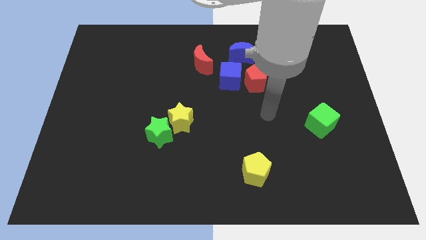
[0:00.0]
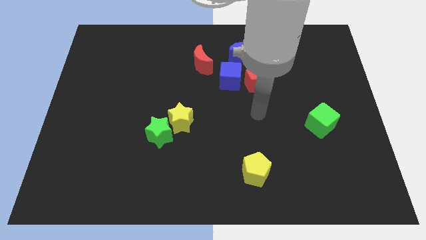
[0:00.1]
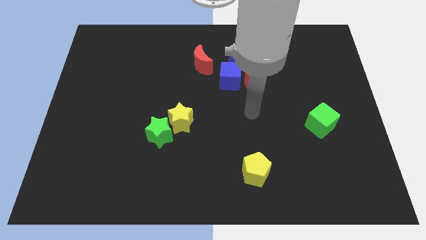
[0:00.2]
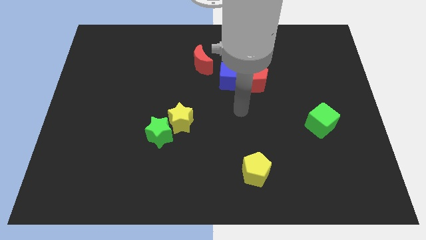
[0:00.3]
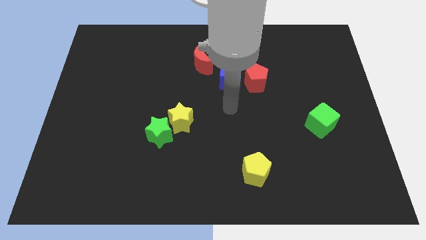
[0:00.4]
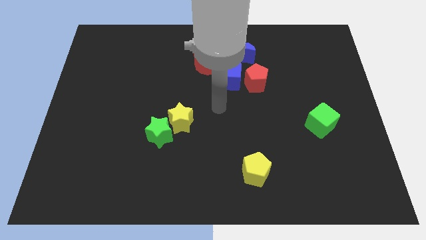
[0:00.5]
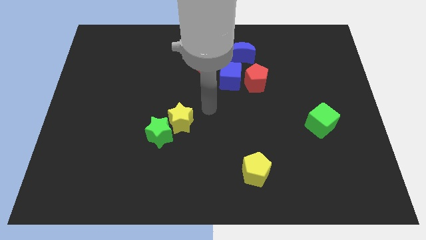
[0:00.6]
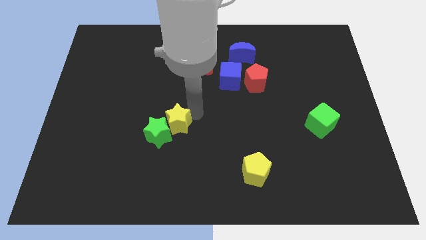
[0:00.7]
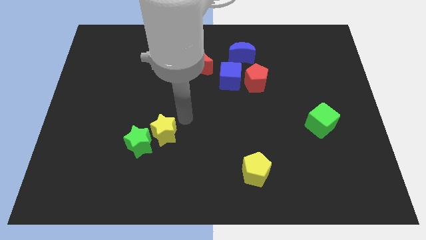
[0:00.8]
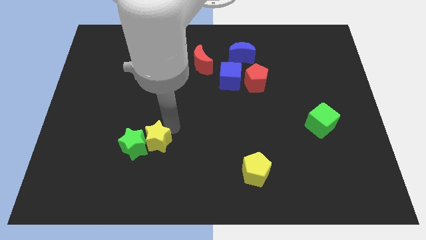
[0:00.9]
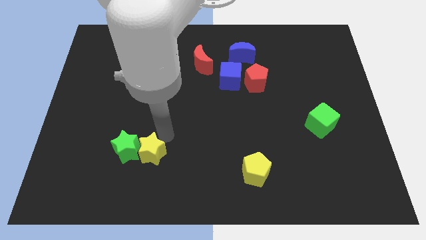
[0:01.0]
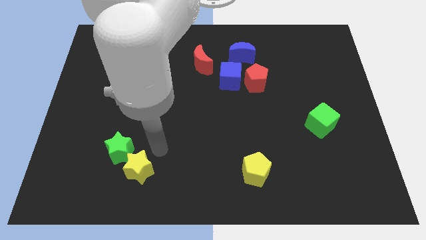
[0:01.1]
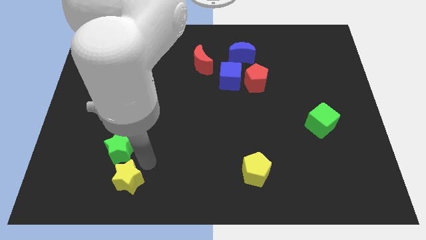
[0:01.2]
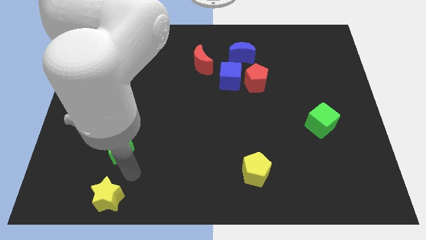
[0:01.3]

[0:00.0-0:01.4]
separate the green star from the yellow star

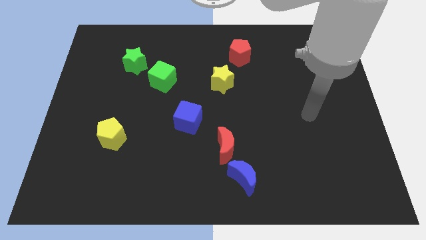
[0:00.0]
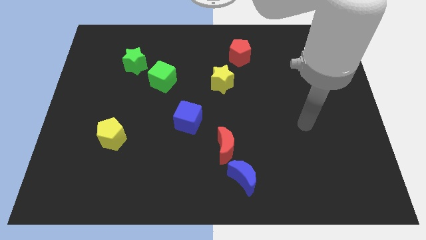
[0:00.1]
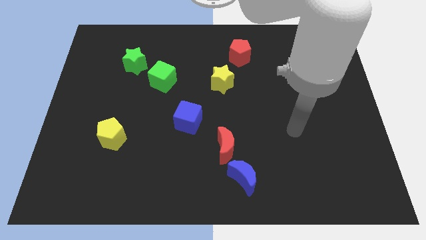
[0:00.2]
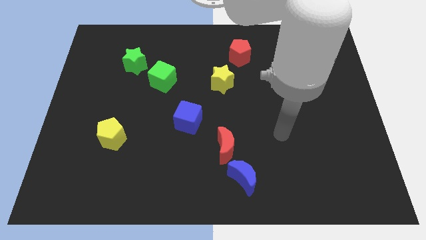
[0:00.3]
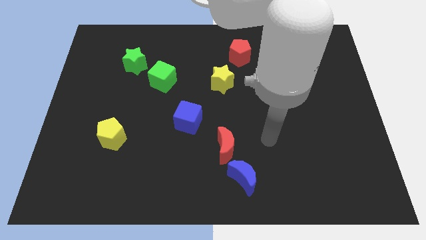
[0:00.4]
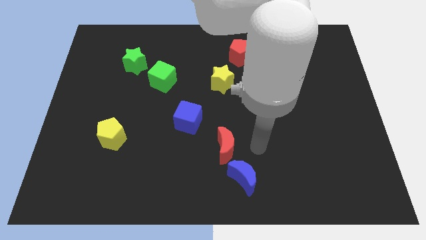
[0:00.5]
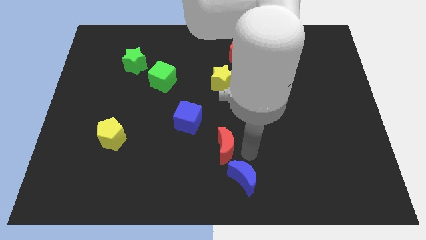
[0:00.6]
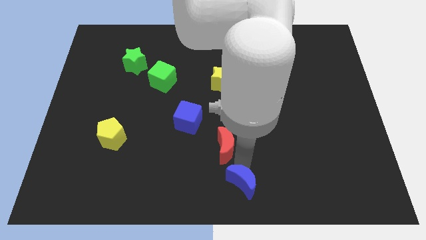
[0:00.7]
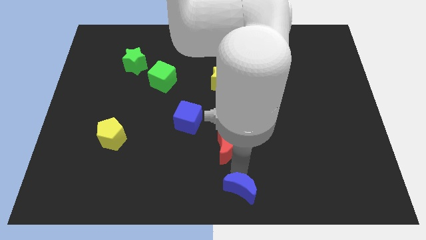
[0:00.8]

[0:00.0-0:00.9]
separate the red moon from the blue moon

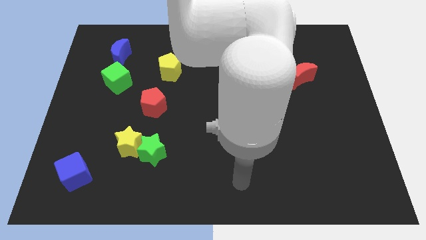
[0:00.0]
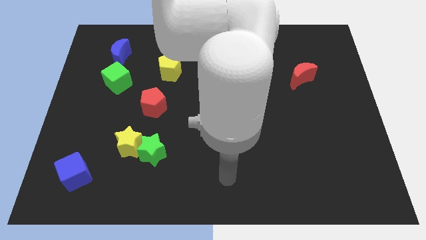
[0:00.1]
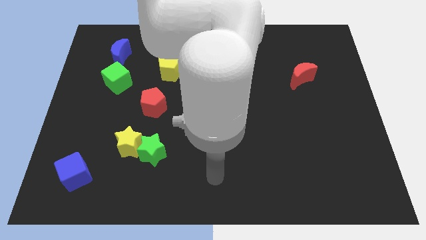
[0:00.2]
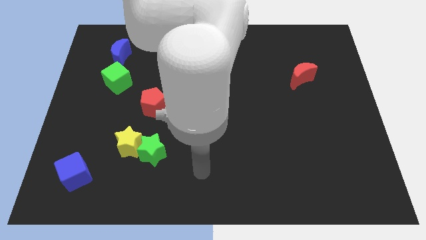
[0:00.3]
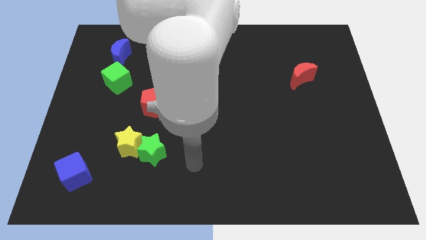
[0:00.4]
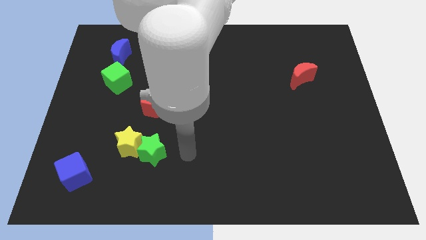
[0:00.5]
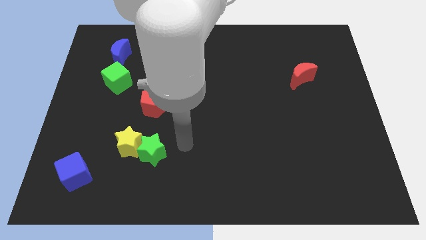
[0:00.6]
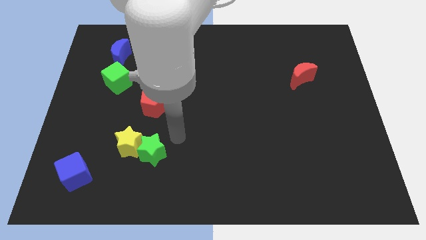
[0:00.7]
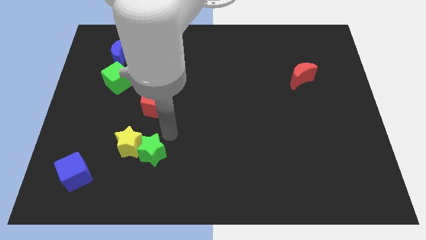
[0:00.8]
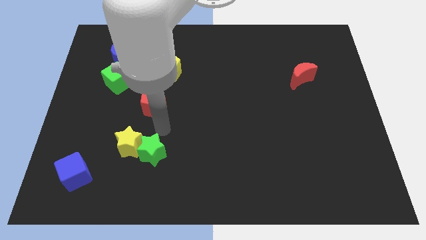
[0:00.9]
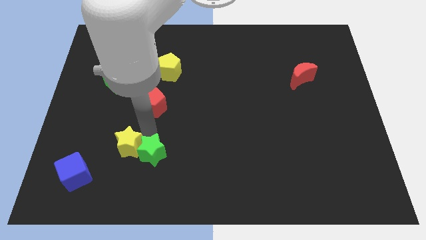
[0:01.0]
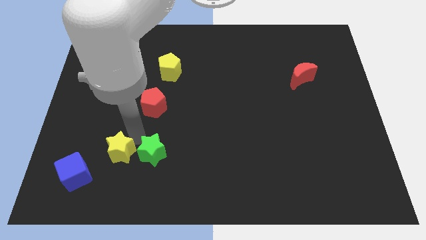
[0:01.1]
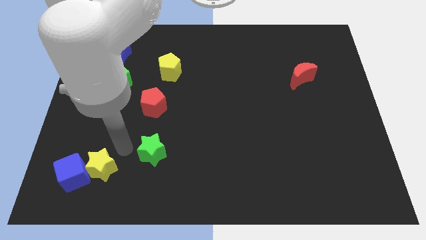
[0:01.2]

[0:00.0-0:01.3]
move the green star away from the yellow star

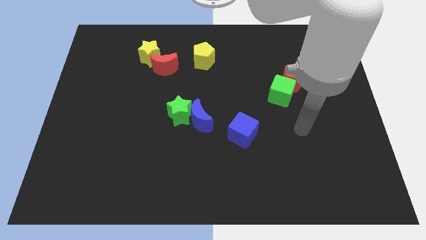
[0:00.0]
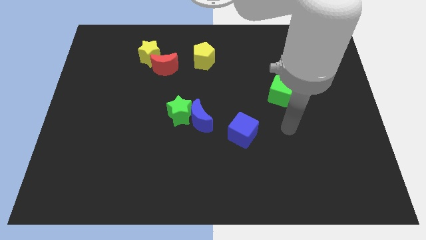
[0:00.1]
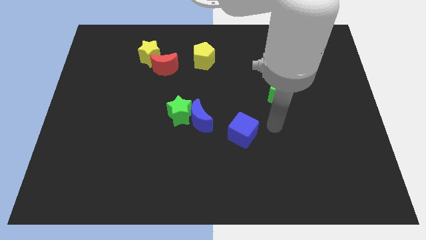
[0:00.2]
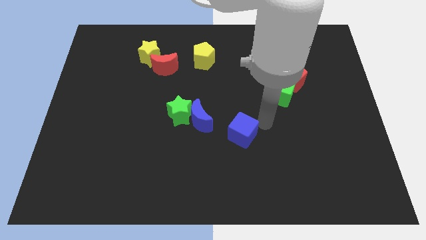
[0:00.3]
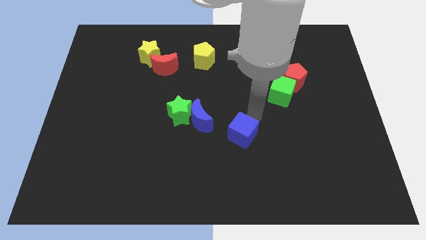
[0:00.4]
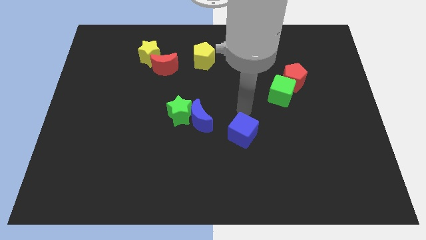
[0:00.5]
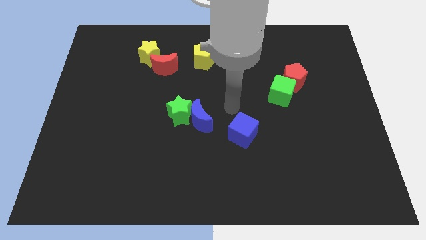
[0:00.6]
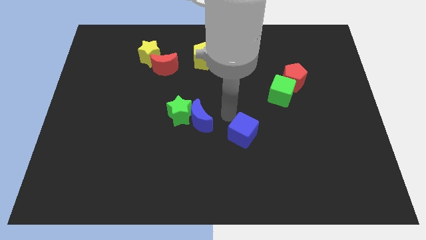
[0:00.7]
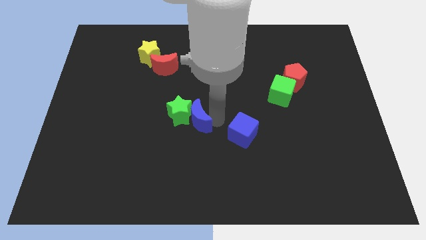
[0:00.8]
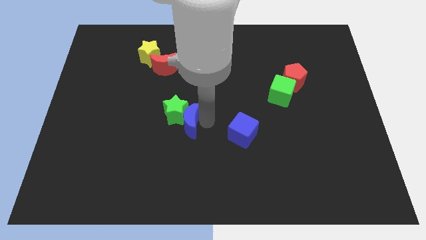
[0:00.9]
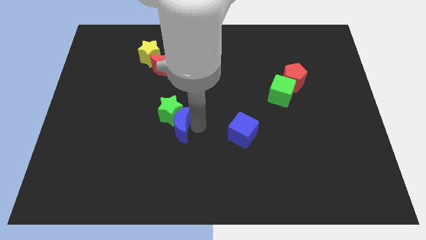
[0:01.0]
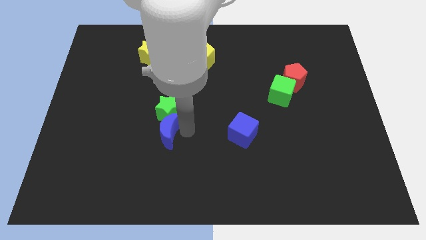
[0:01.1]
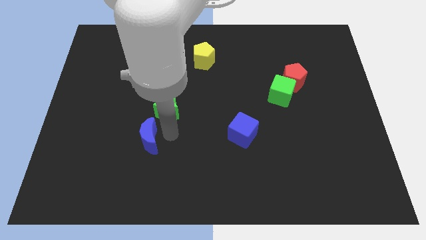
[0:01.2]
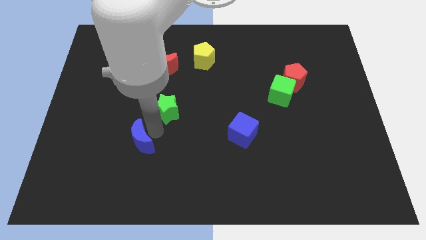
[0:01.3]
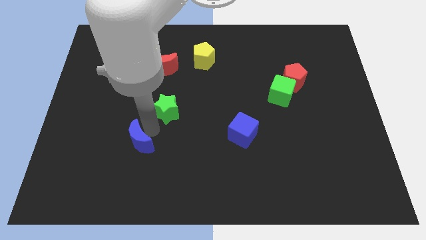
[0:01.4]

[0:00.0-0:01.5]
separate the green star from the blue moon

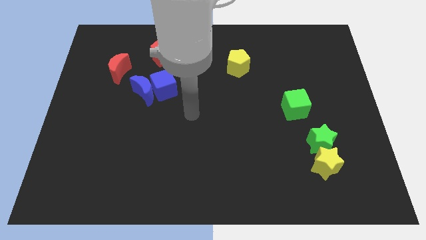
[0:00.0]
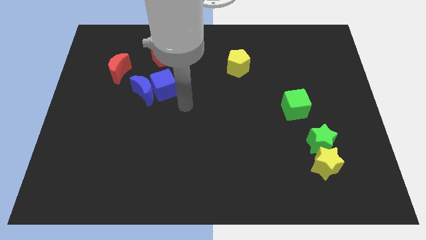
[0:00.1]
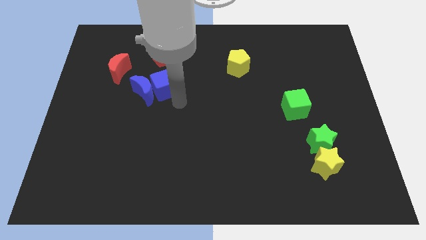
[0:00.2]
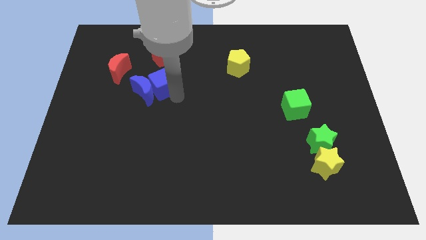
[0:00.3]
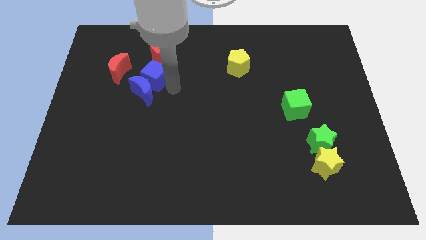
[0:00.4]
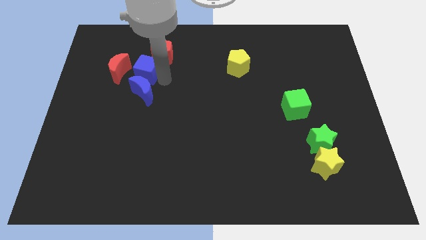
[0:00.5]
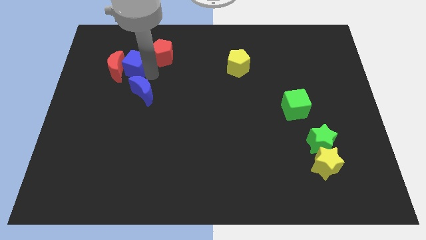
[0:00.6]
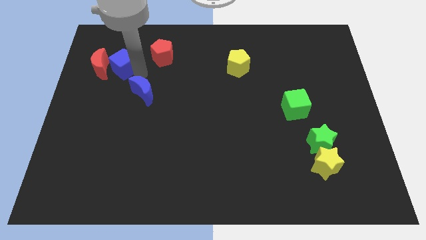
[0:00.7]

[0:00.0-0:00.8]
move the blue moon away from the blue cube

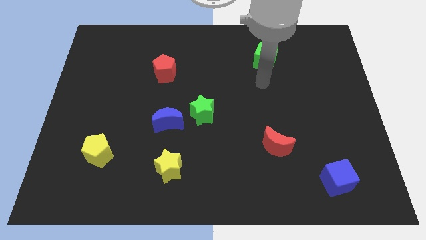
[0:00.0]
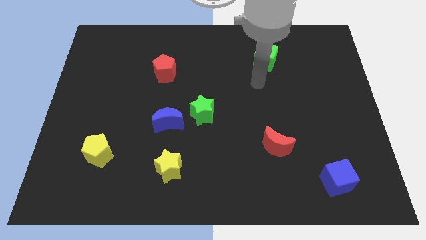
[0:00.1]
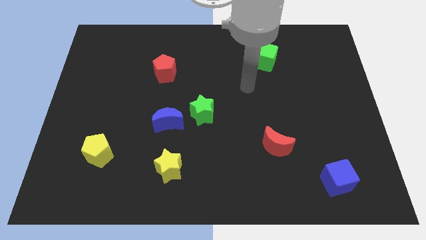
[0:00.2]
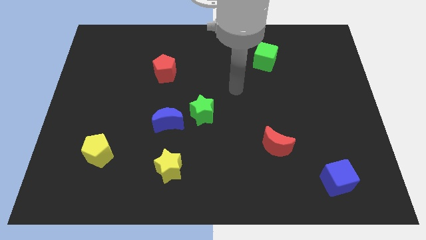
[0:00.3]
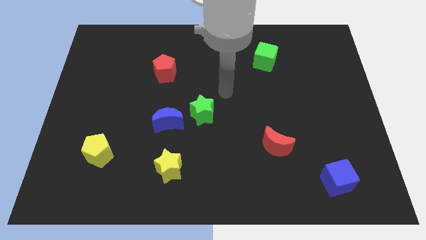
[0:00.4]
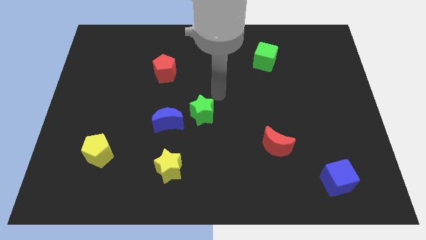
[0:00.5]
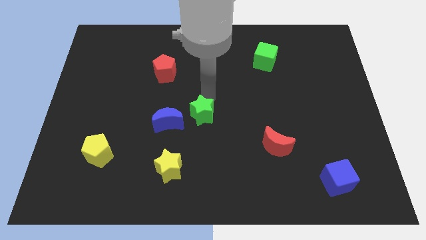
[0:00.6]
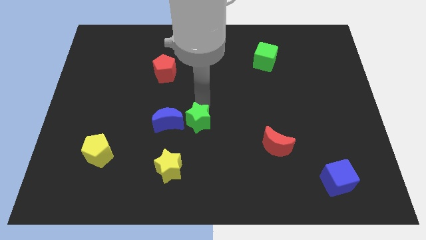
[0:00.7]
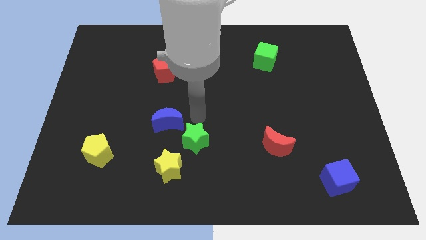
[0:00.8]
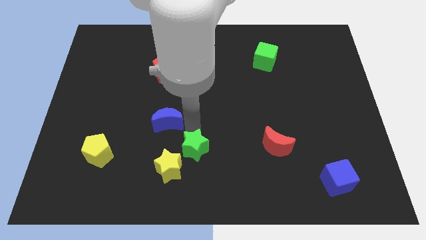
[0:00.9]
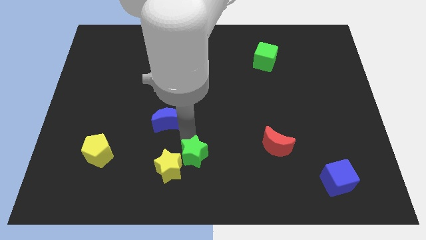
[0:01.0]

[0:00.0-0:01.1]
move the blue moon away from the green star

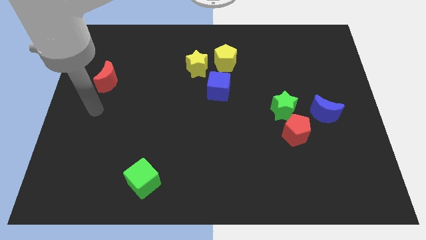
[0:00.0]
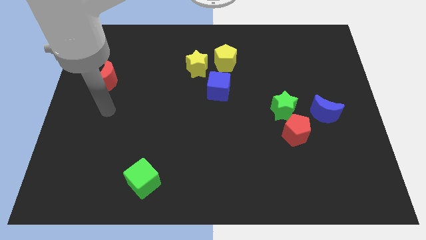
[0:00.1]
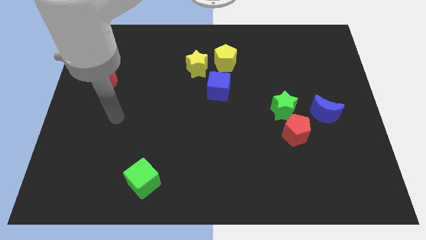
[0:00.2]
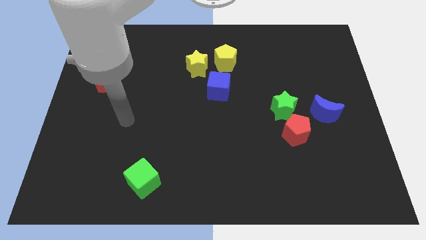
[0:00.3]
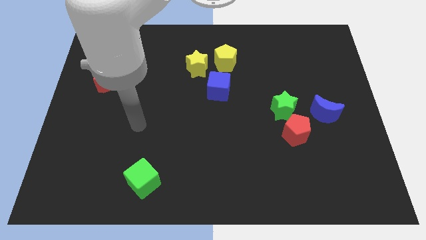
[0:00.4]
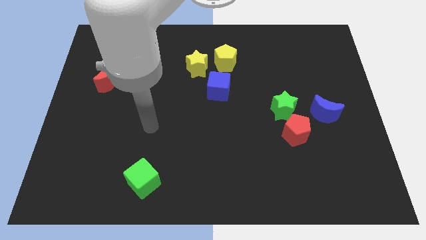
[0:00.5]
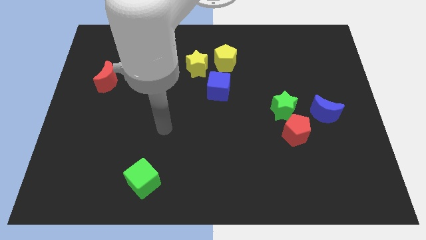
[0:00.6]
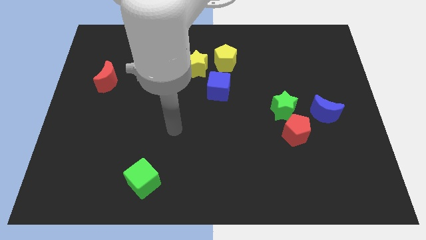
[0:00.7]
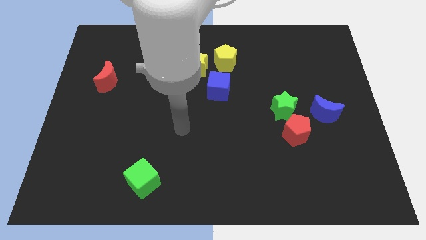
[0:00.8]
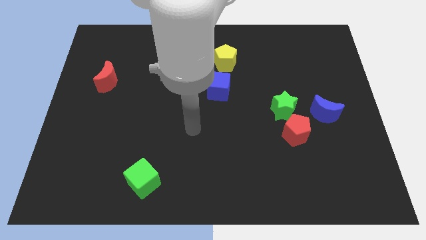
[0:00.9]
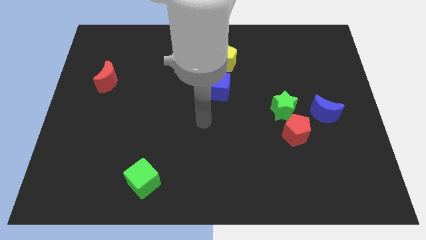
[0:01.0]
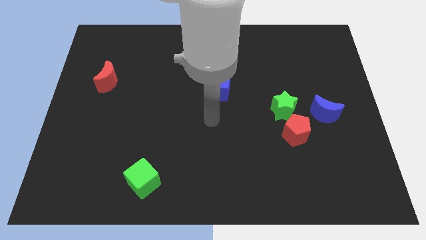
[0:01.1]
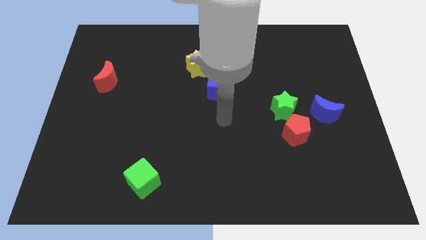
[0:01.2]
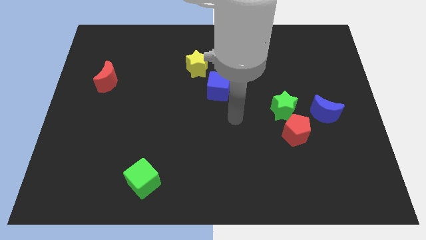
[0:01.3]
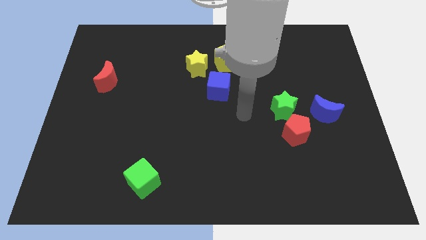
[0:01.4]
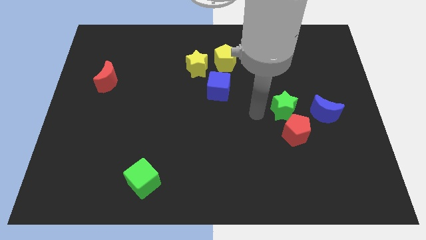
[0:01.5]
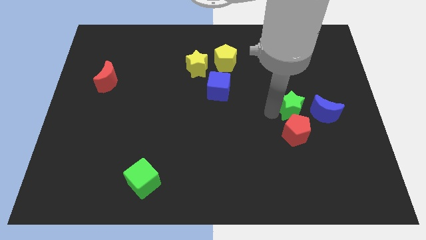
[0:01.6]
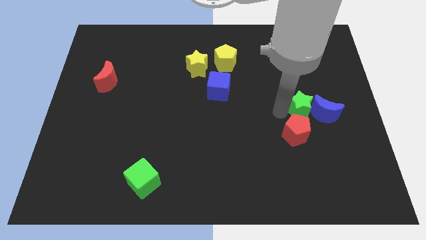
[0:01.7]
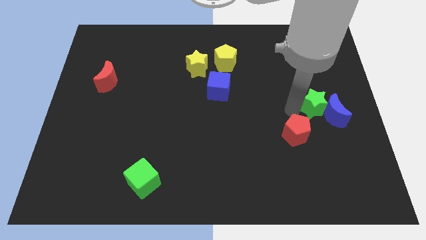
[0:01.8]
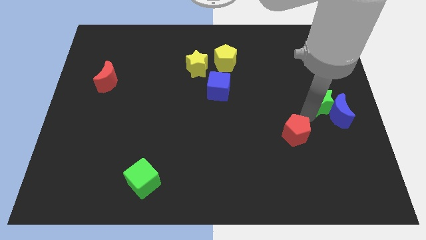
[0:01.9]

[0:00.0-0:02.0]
move the red pentagon away from the green star and blue moon

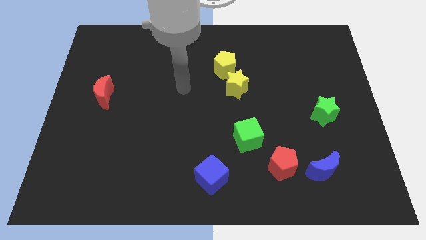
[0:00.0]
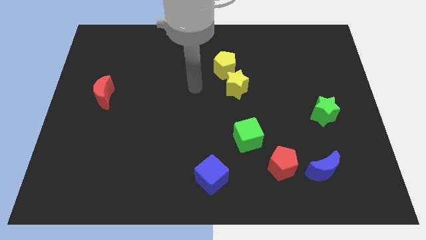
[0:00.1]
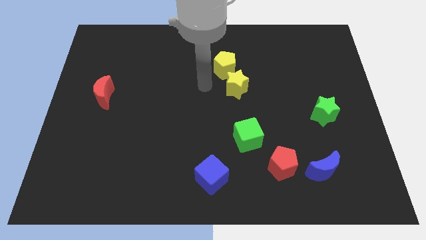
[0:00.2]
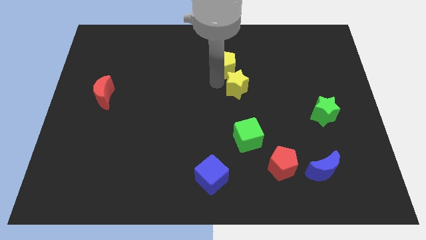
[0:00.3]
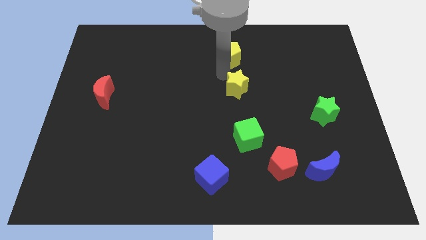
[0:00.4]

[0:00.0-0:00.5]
separate the yellow star from the yellow pentagon
